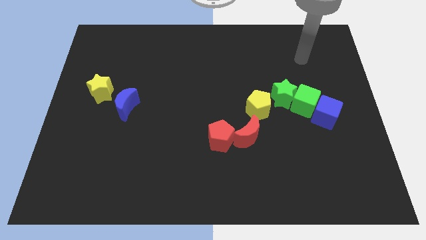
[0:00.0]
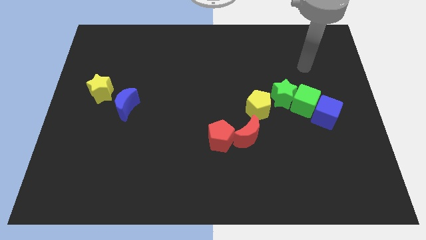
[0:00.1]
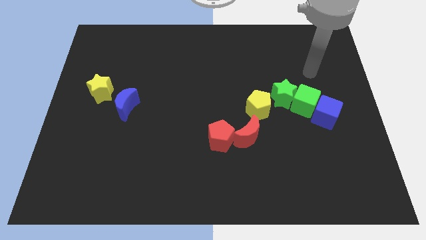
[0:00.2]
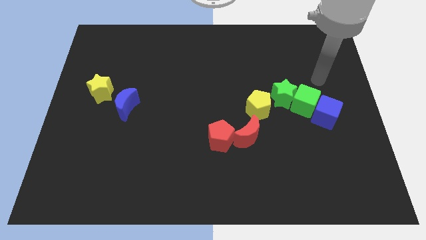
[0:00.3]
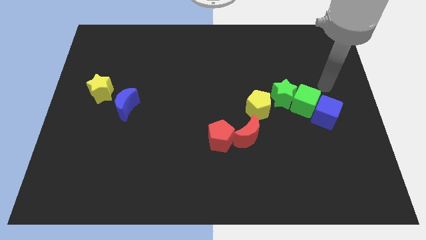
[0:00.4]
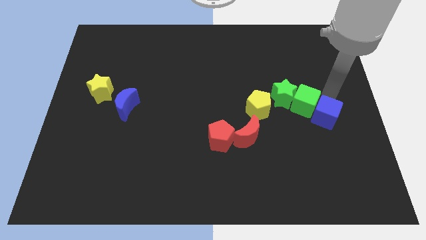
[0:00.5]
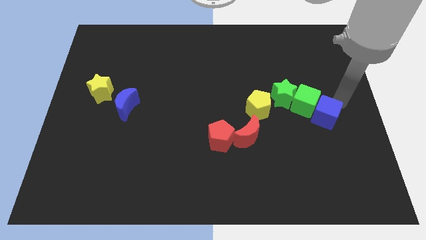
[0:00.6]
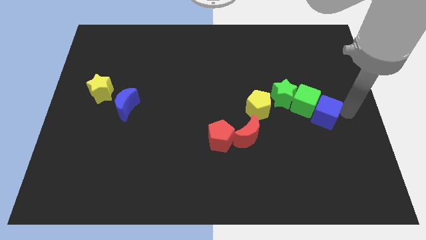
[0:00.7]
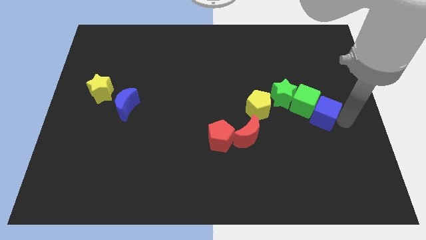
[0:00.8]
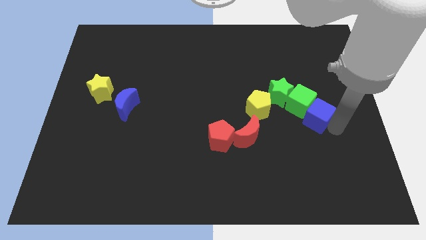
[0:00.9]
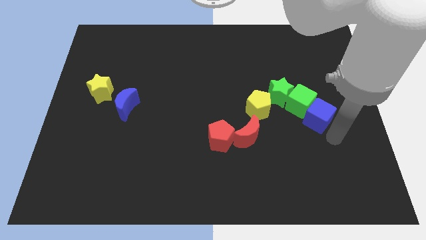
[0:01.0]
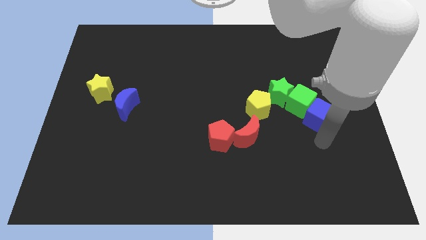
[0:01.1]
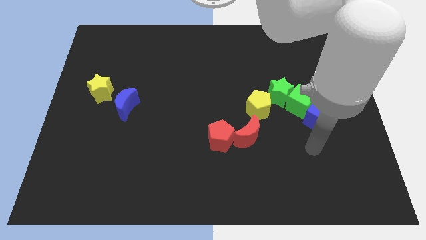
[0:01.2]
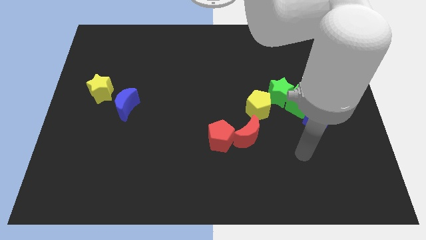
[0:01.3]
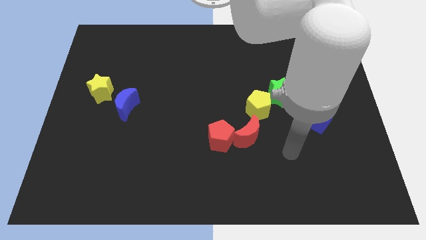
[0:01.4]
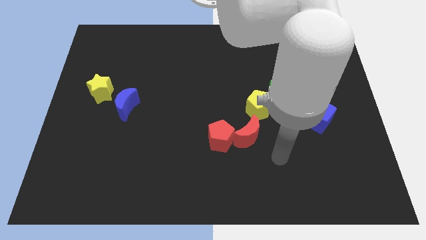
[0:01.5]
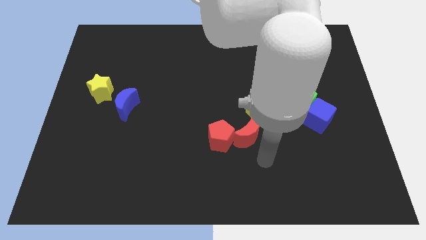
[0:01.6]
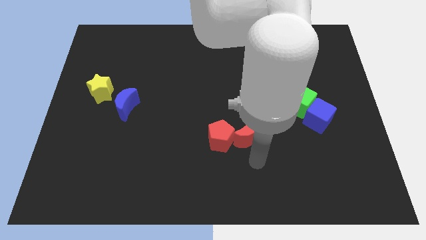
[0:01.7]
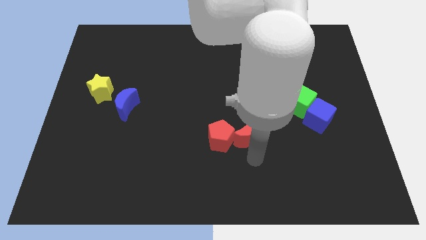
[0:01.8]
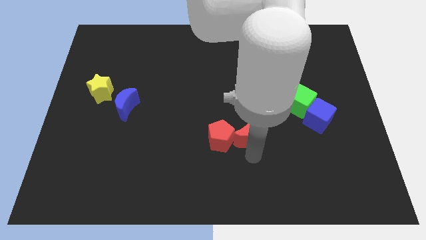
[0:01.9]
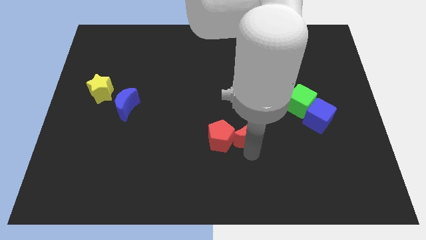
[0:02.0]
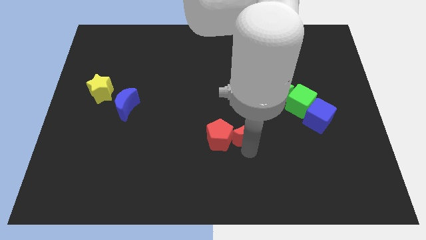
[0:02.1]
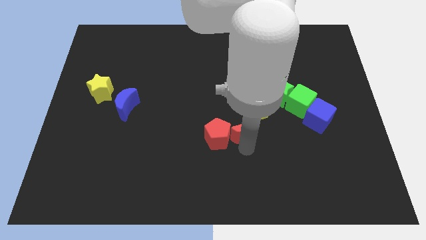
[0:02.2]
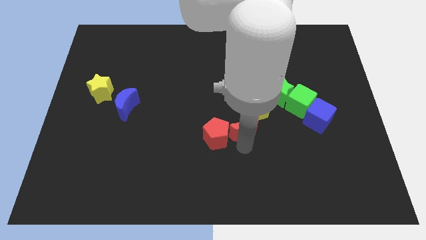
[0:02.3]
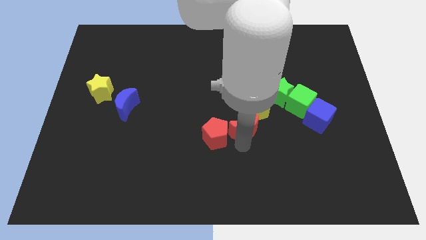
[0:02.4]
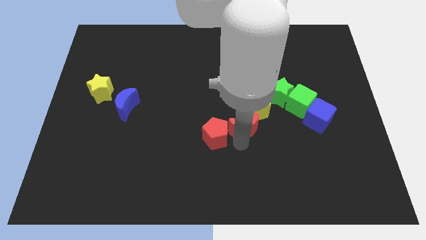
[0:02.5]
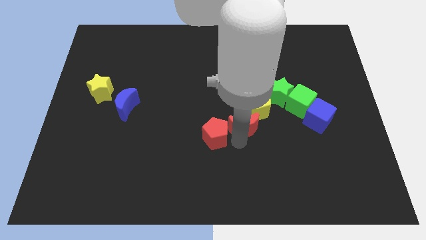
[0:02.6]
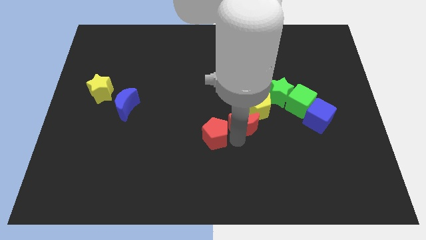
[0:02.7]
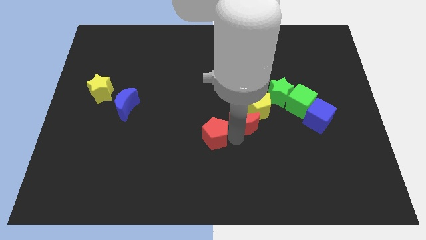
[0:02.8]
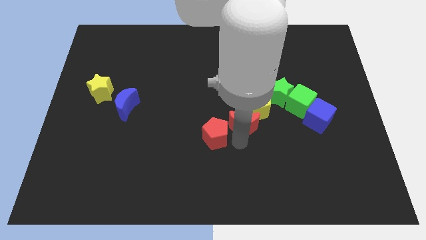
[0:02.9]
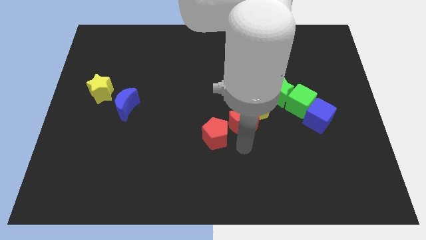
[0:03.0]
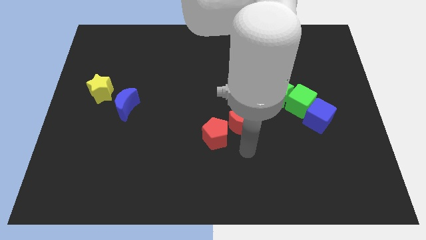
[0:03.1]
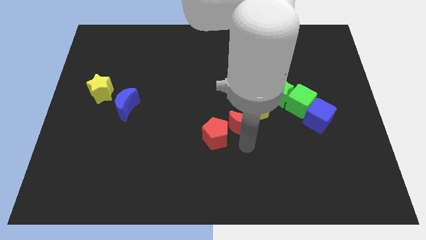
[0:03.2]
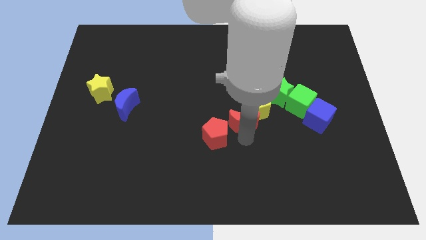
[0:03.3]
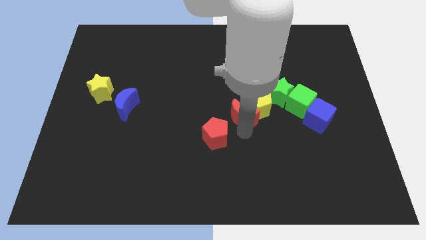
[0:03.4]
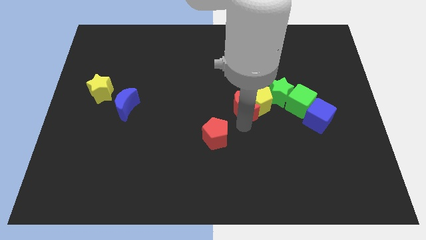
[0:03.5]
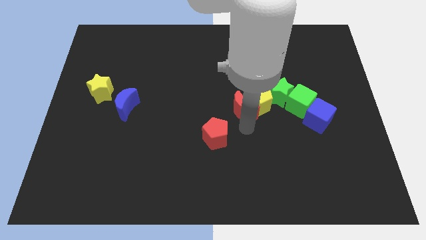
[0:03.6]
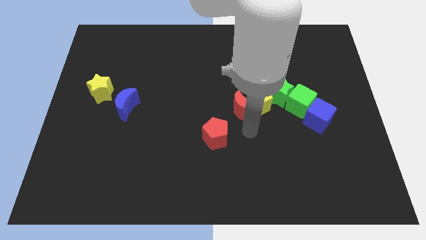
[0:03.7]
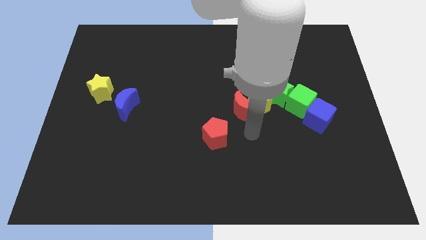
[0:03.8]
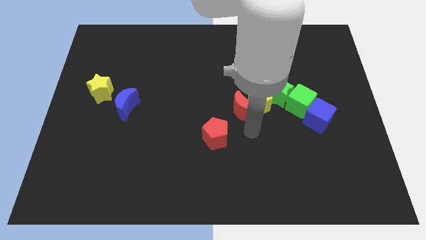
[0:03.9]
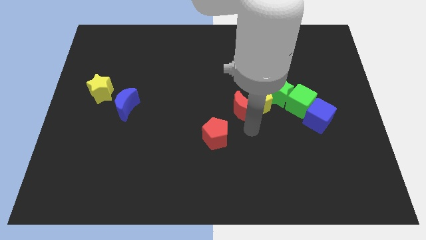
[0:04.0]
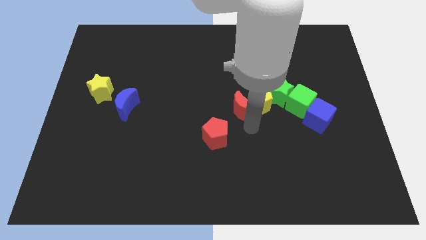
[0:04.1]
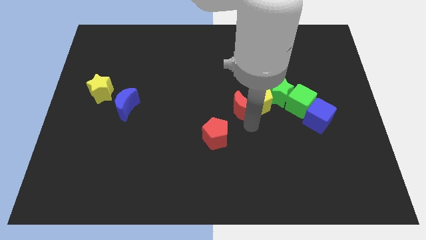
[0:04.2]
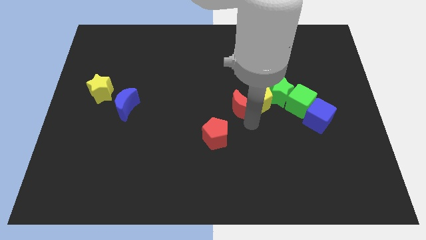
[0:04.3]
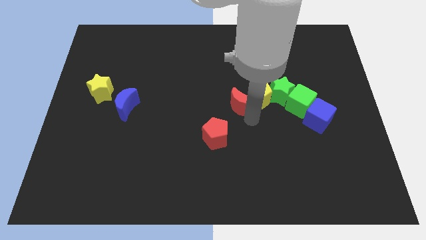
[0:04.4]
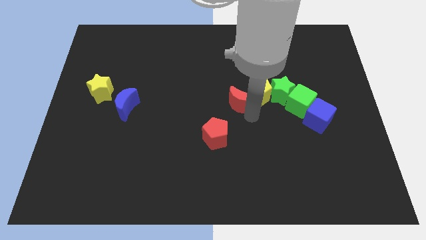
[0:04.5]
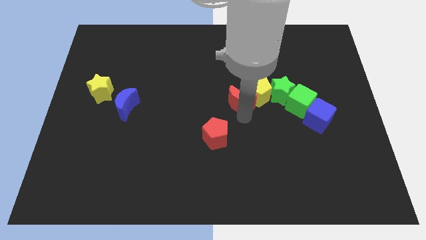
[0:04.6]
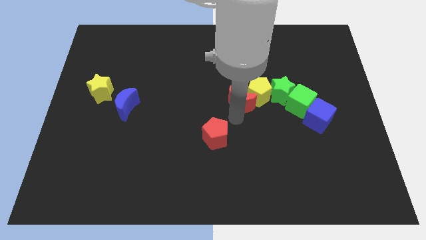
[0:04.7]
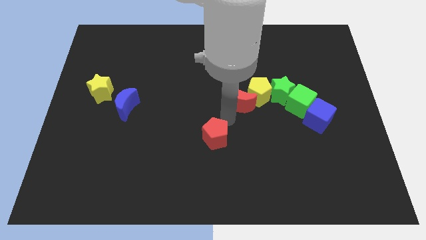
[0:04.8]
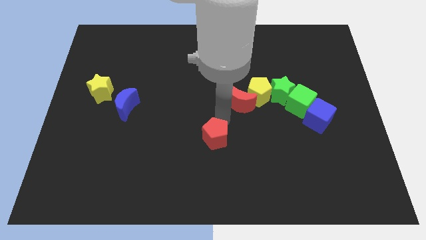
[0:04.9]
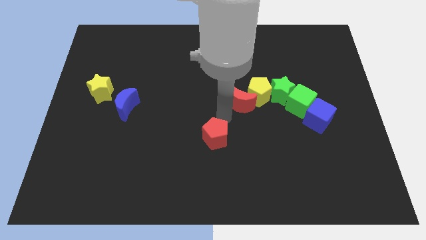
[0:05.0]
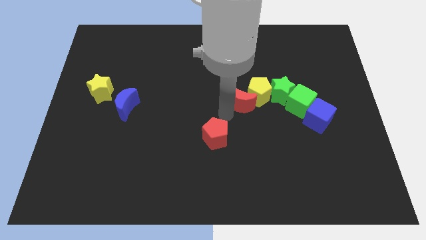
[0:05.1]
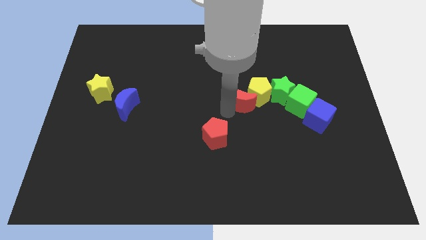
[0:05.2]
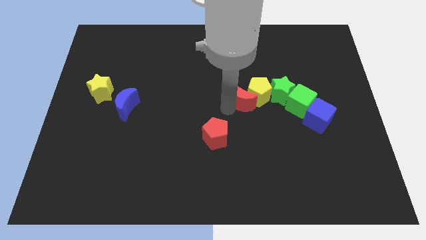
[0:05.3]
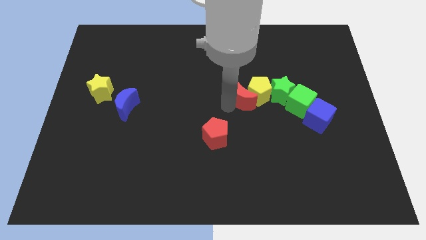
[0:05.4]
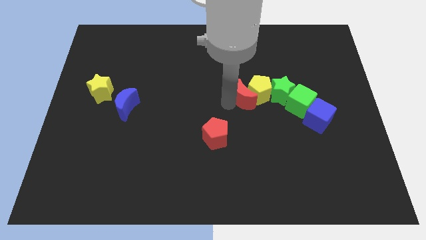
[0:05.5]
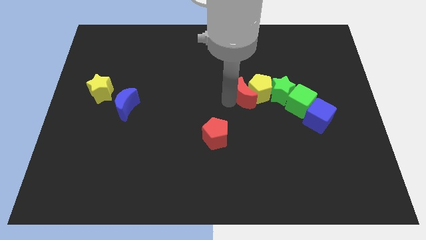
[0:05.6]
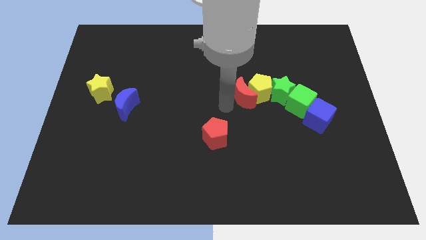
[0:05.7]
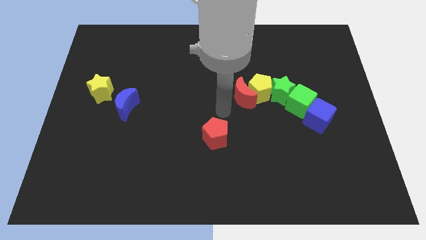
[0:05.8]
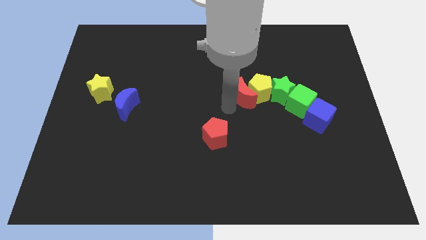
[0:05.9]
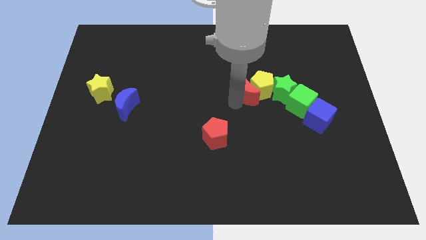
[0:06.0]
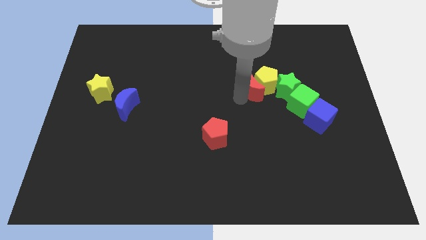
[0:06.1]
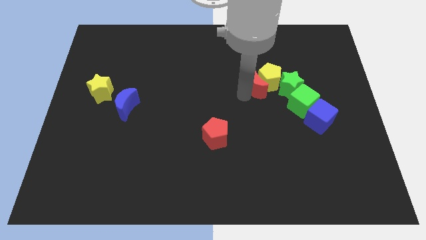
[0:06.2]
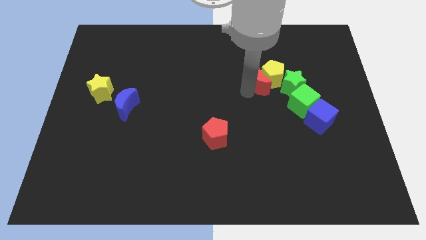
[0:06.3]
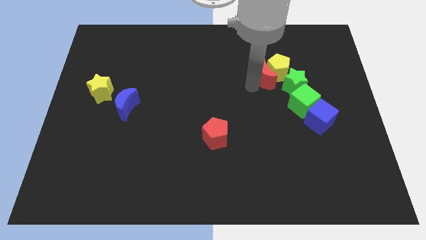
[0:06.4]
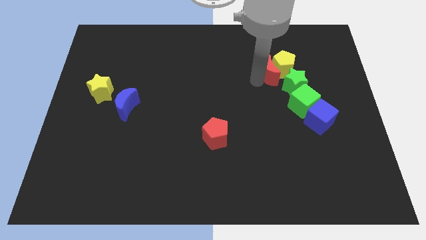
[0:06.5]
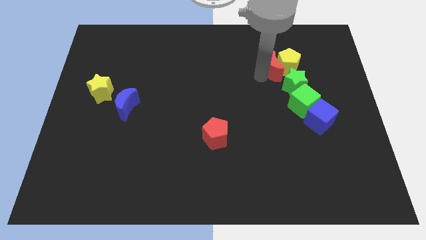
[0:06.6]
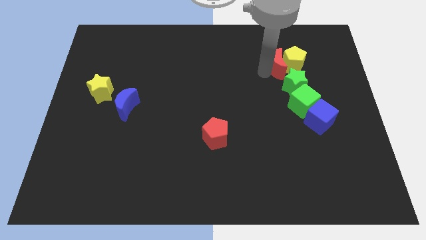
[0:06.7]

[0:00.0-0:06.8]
push the red moon to the top of the green cube

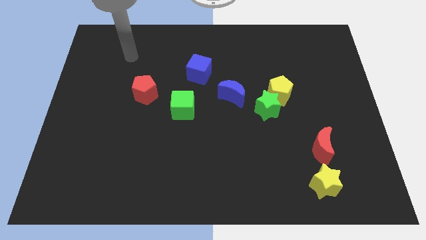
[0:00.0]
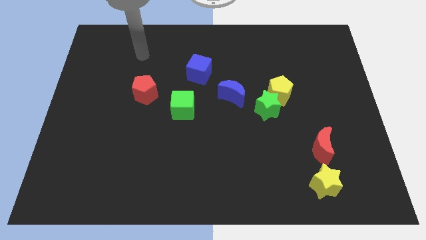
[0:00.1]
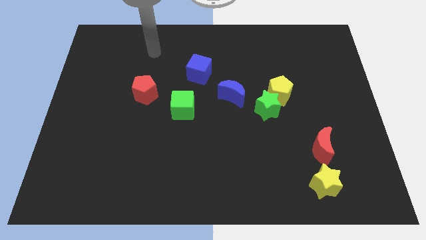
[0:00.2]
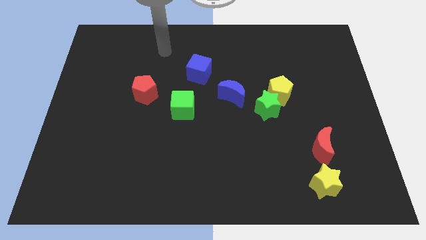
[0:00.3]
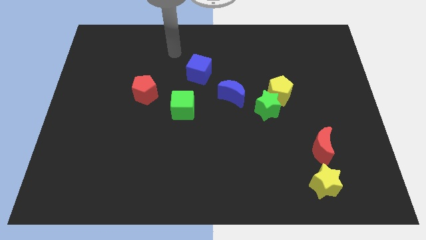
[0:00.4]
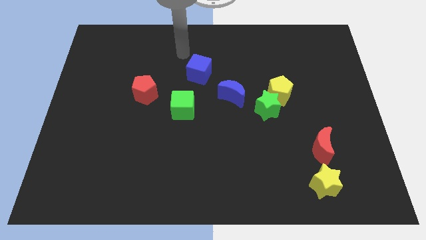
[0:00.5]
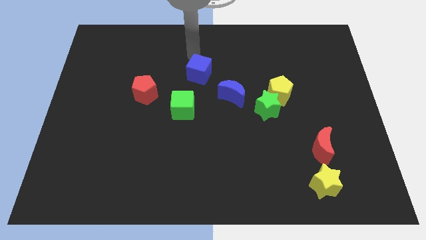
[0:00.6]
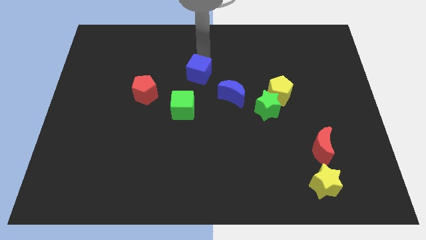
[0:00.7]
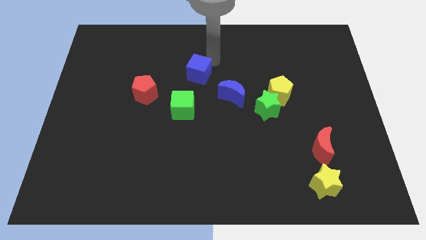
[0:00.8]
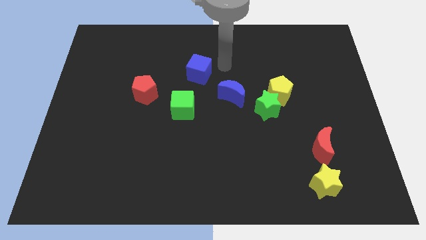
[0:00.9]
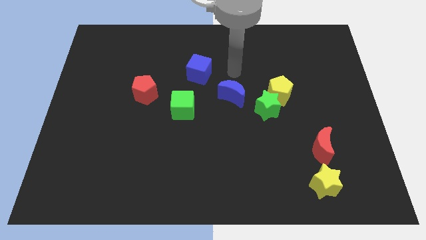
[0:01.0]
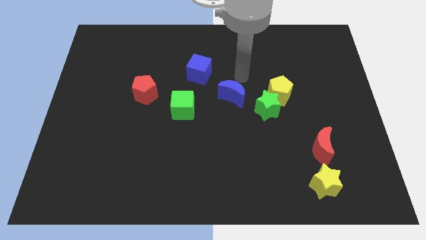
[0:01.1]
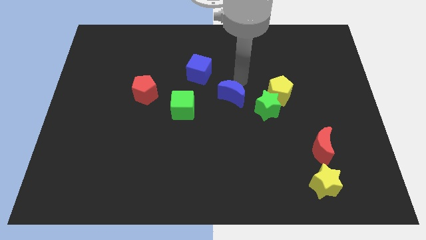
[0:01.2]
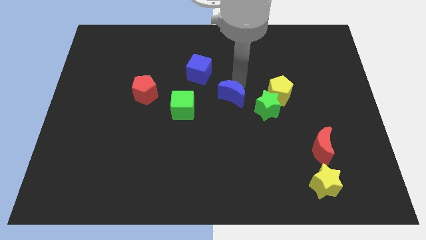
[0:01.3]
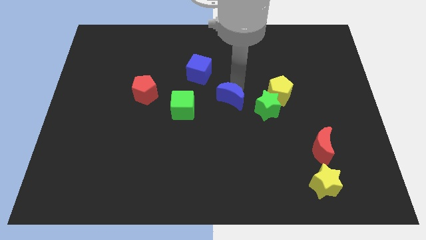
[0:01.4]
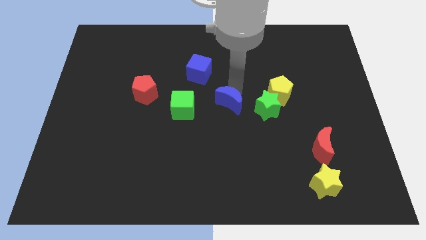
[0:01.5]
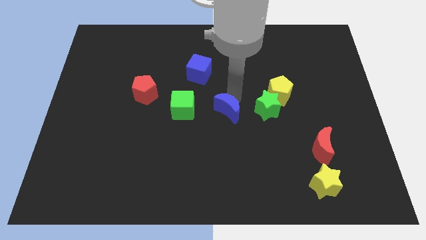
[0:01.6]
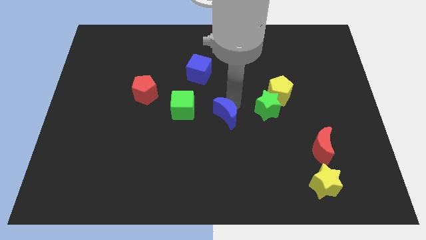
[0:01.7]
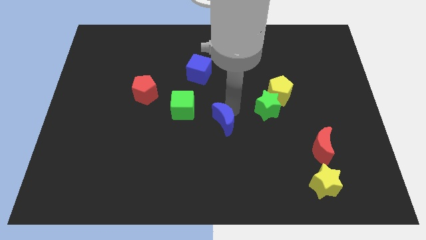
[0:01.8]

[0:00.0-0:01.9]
slide the blue moon to the bottom right side of the green cube
